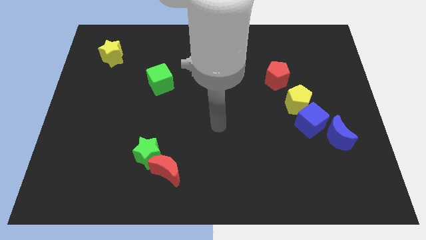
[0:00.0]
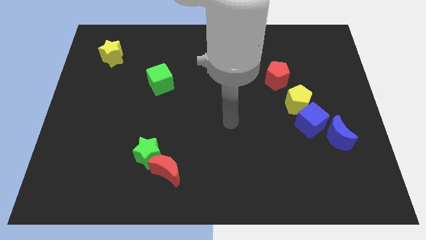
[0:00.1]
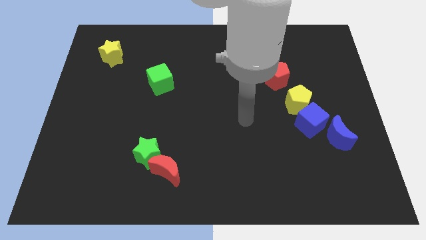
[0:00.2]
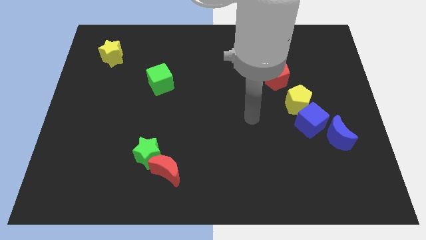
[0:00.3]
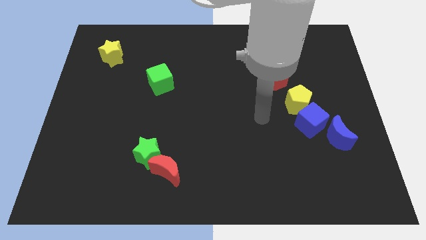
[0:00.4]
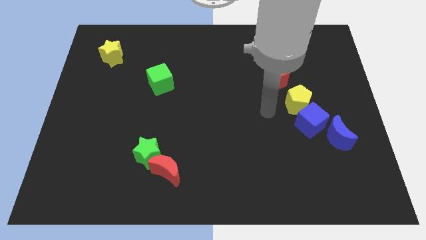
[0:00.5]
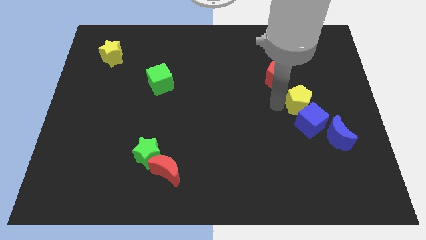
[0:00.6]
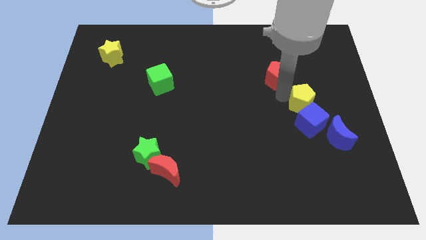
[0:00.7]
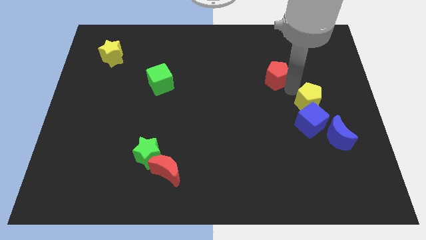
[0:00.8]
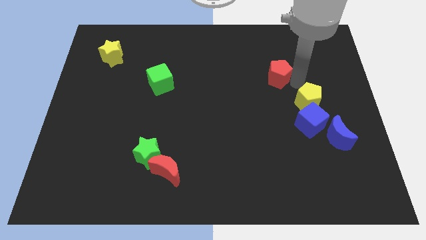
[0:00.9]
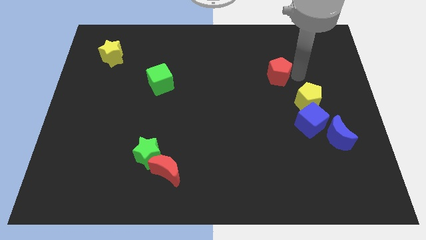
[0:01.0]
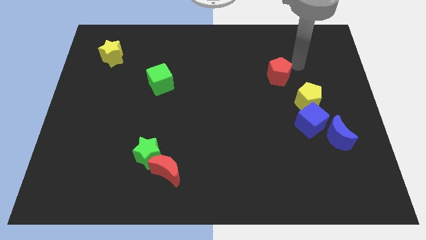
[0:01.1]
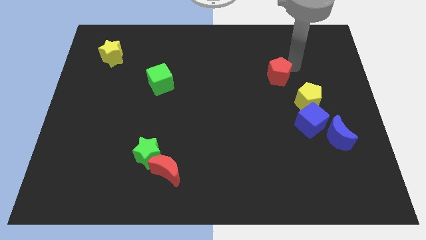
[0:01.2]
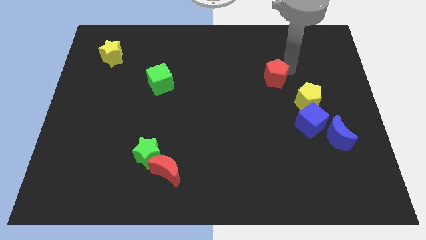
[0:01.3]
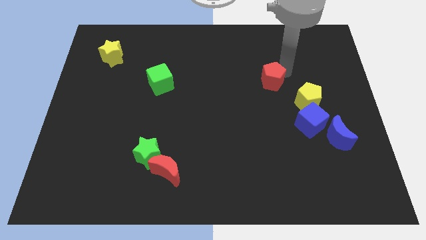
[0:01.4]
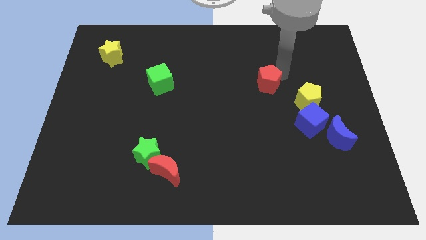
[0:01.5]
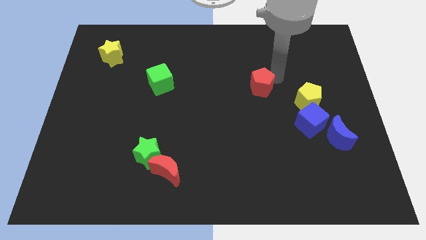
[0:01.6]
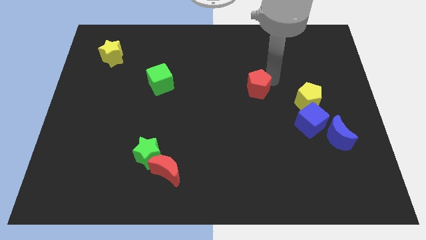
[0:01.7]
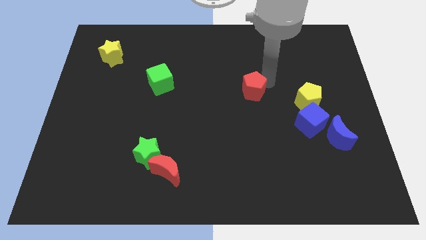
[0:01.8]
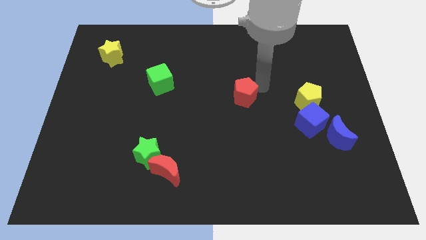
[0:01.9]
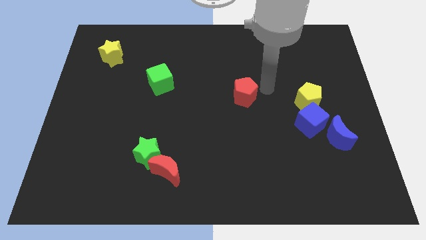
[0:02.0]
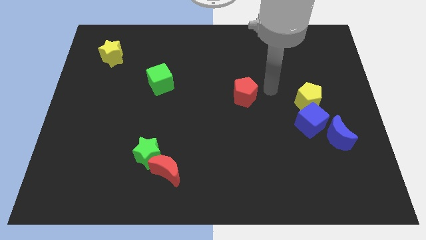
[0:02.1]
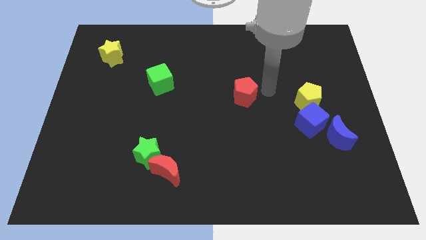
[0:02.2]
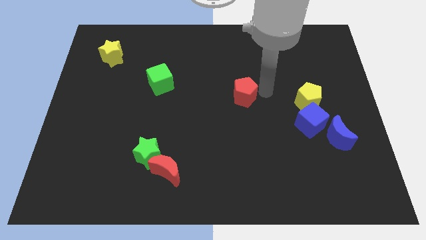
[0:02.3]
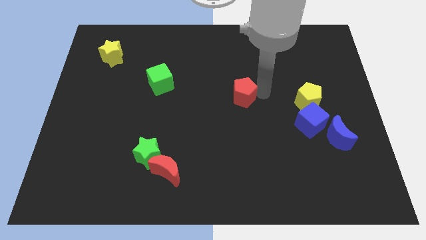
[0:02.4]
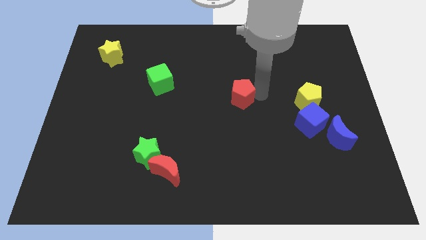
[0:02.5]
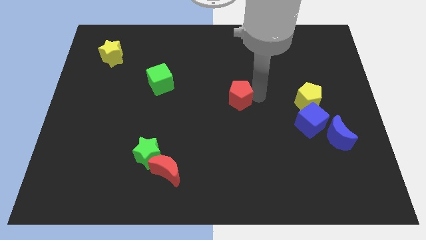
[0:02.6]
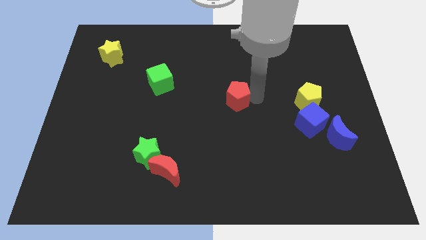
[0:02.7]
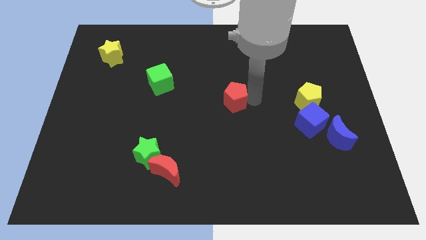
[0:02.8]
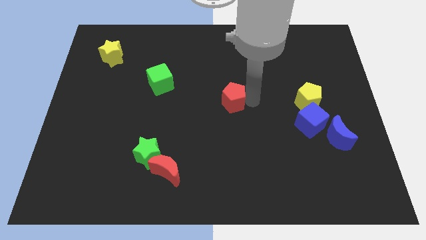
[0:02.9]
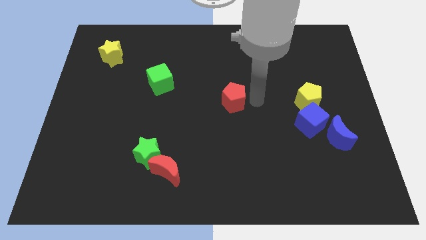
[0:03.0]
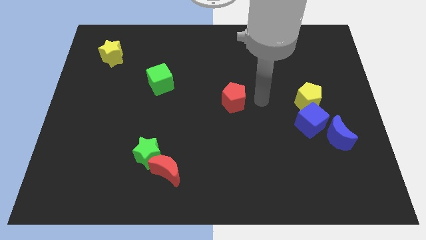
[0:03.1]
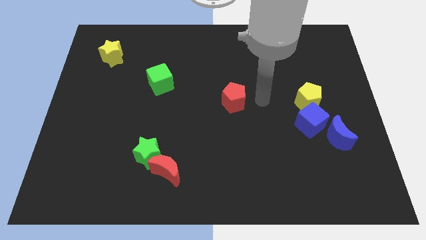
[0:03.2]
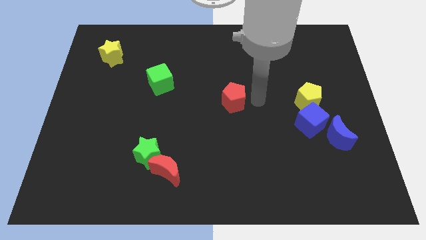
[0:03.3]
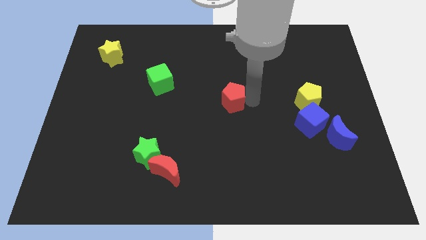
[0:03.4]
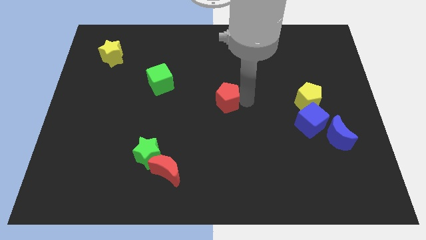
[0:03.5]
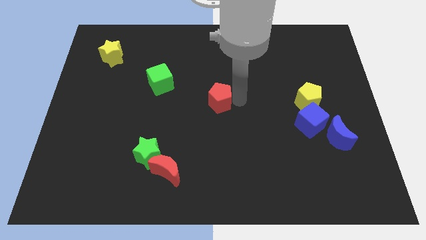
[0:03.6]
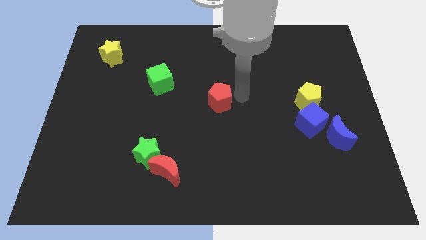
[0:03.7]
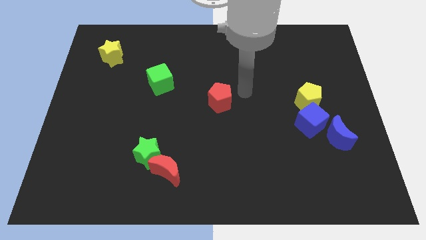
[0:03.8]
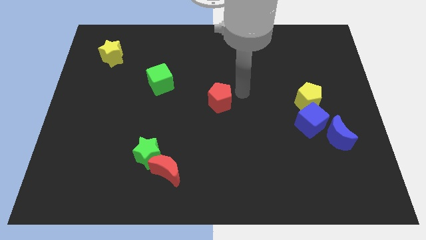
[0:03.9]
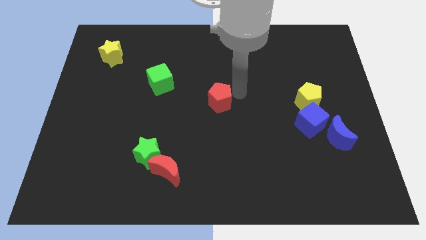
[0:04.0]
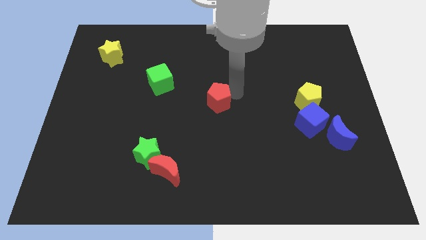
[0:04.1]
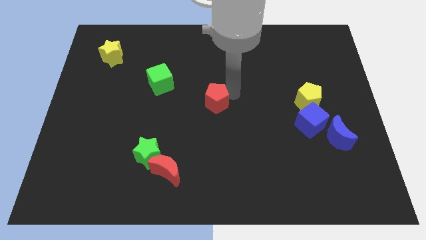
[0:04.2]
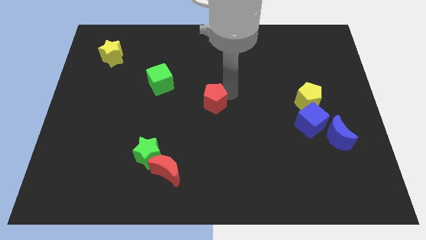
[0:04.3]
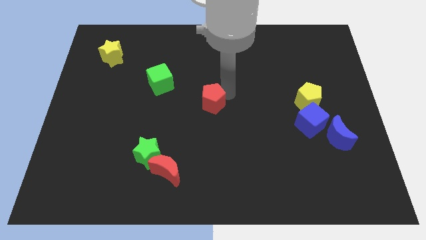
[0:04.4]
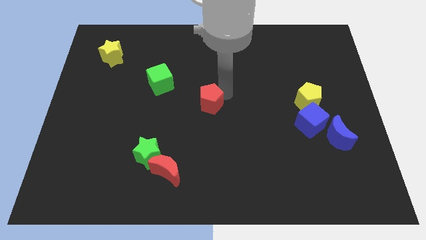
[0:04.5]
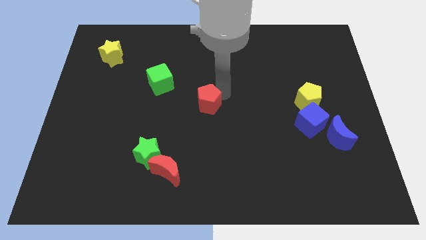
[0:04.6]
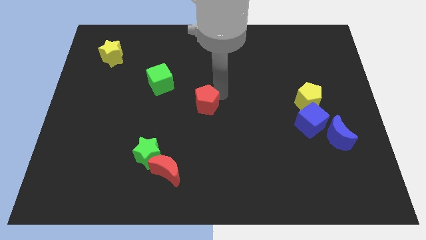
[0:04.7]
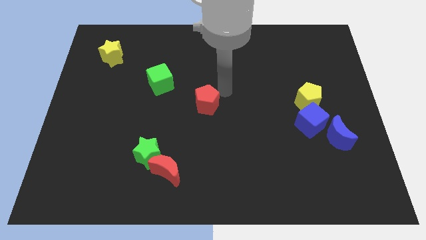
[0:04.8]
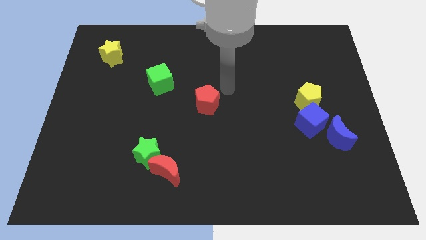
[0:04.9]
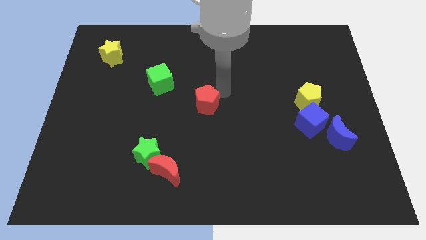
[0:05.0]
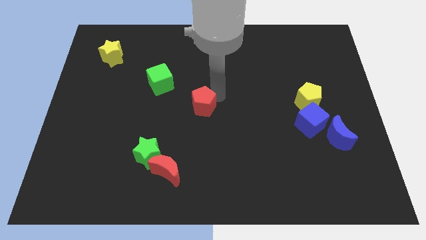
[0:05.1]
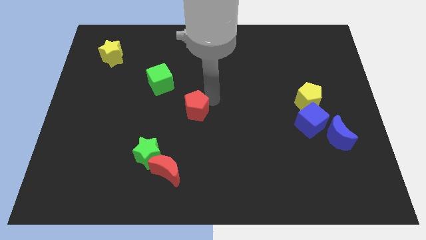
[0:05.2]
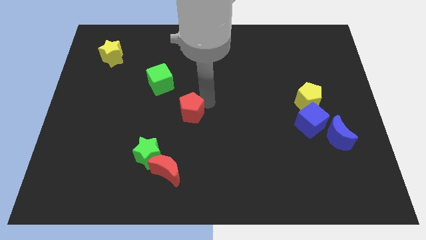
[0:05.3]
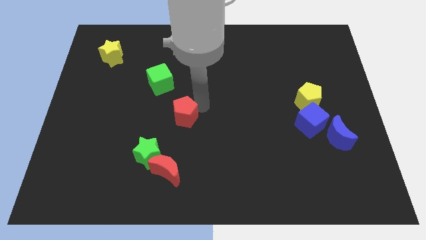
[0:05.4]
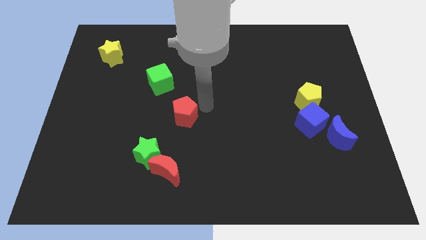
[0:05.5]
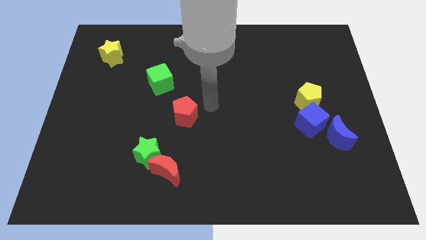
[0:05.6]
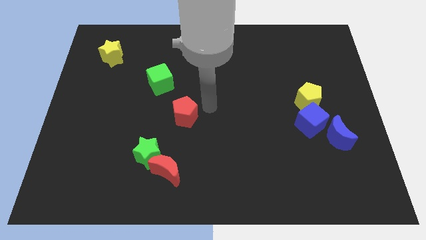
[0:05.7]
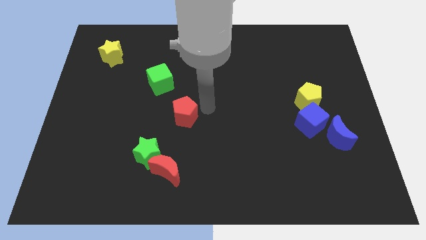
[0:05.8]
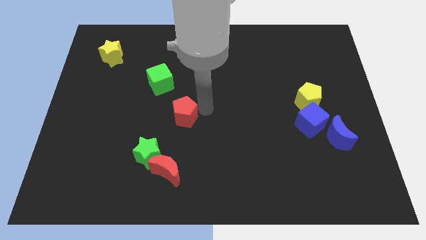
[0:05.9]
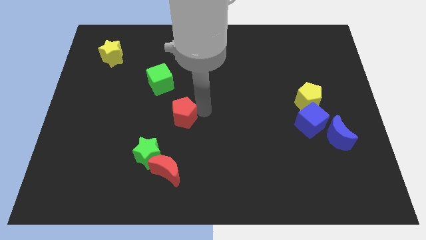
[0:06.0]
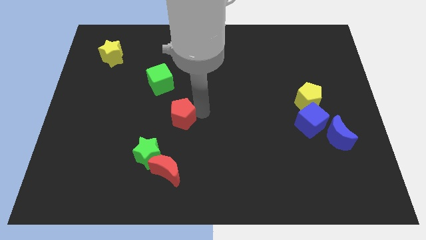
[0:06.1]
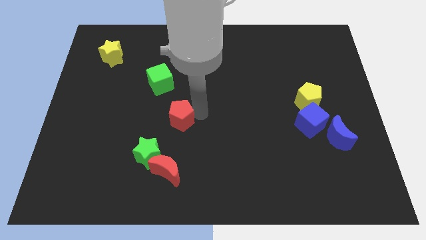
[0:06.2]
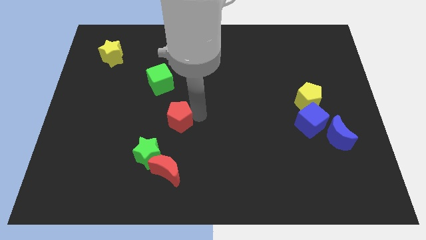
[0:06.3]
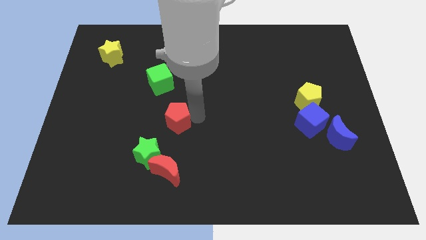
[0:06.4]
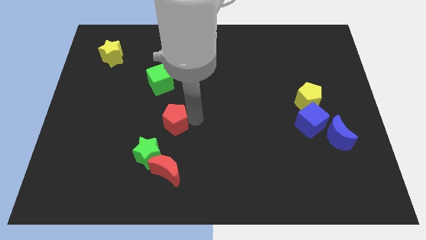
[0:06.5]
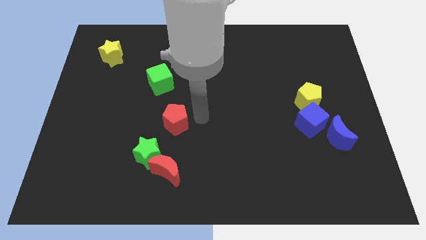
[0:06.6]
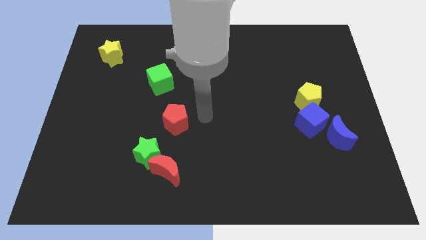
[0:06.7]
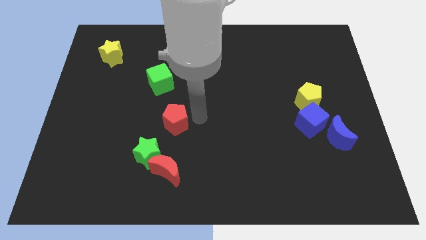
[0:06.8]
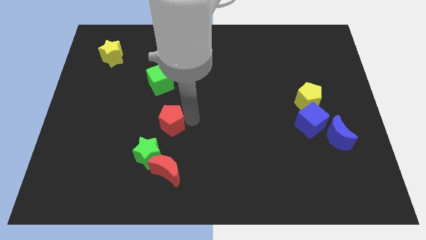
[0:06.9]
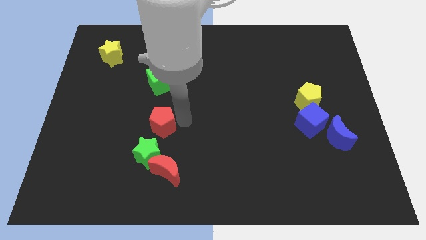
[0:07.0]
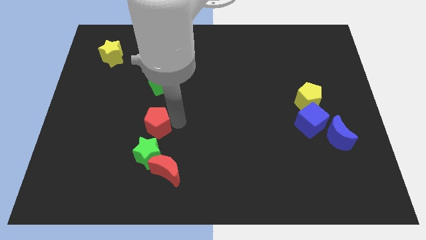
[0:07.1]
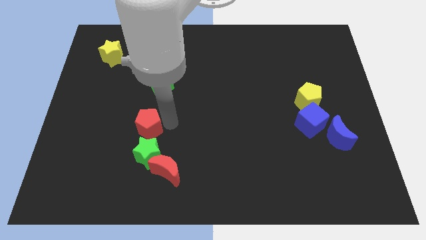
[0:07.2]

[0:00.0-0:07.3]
push the red pentagon to the top left side of the green star

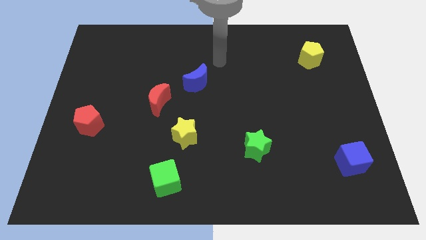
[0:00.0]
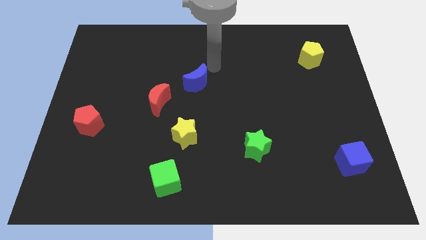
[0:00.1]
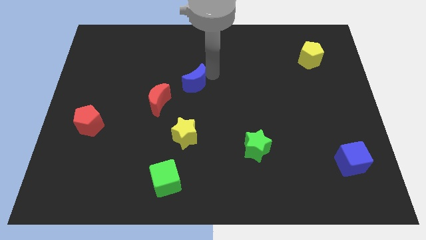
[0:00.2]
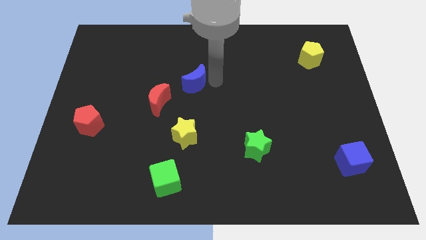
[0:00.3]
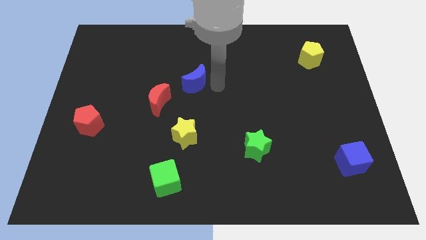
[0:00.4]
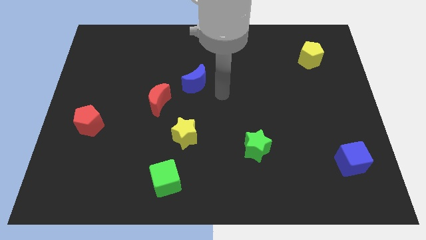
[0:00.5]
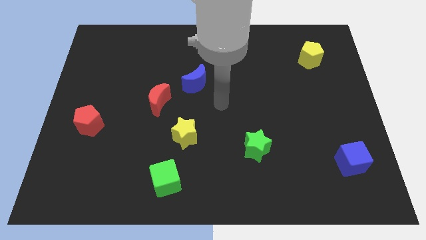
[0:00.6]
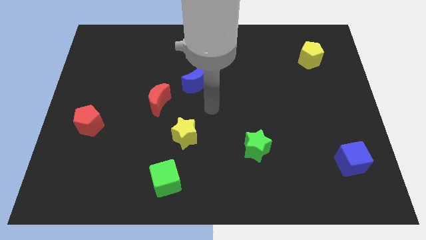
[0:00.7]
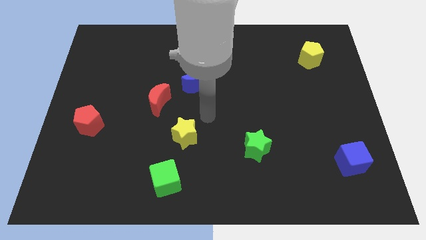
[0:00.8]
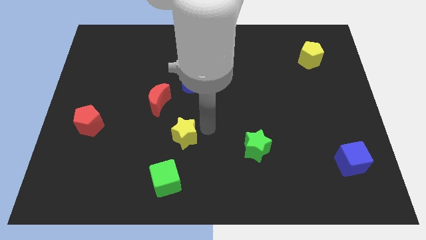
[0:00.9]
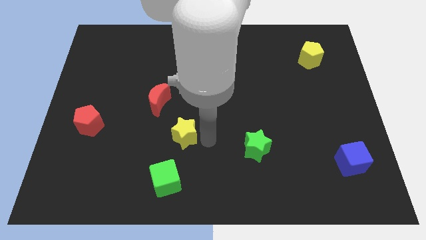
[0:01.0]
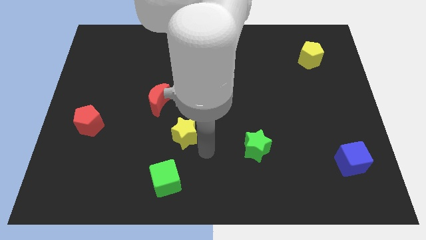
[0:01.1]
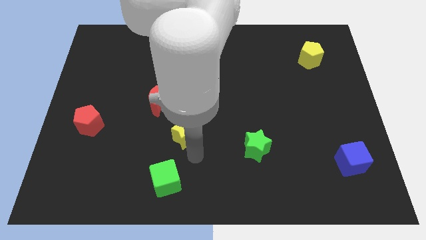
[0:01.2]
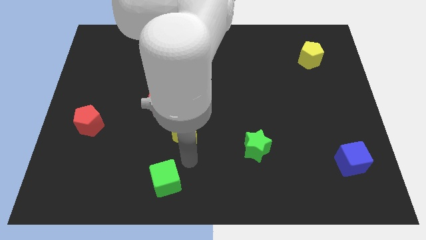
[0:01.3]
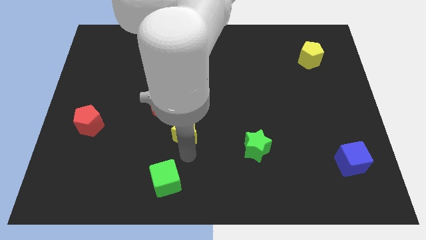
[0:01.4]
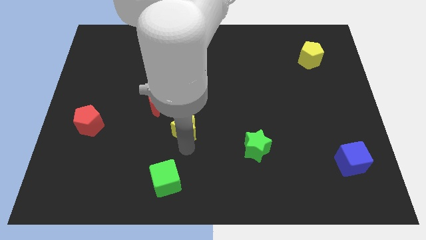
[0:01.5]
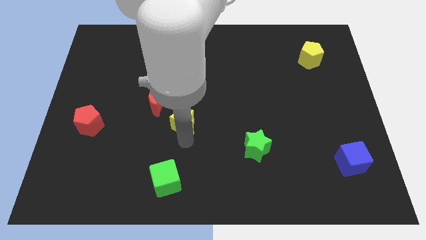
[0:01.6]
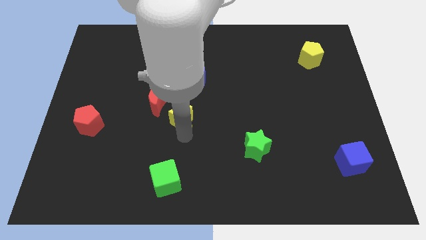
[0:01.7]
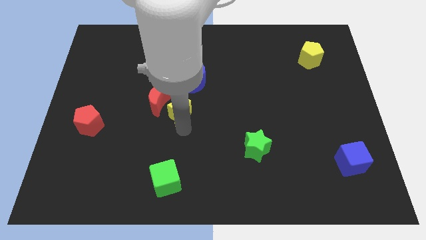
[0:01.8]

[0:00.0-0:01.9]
push the yellow star diagonally down and to the left of the blue moon
